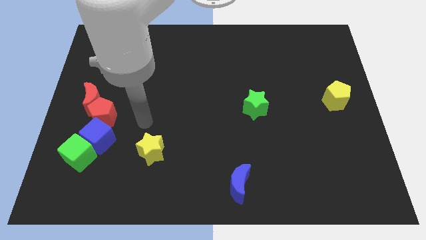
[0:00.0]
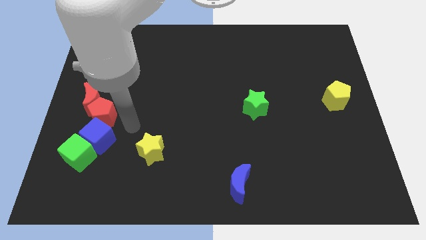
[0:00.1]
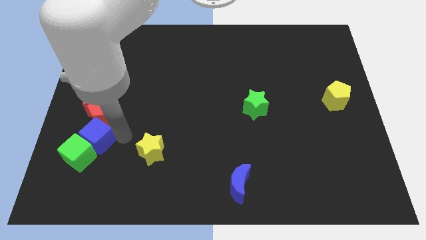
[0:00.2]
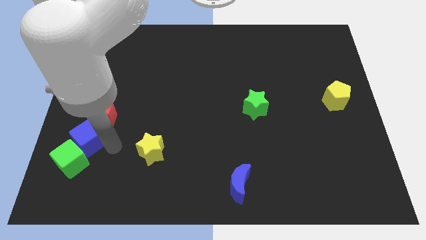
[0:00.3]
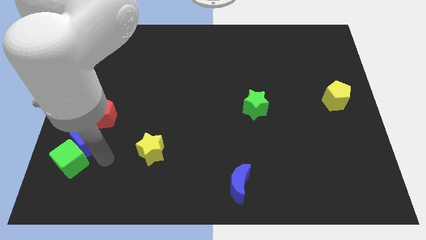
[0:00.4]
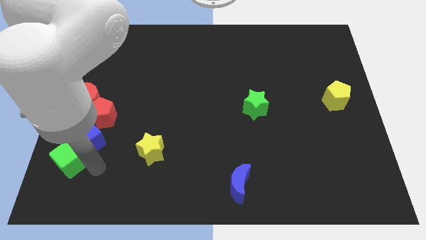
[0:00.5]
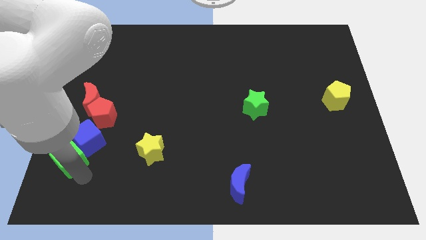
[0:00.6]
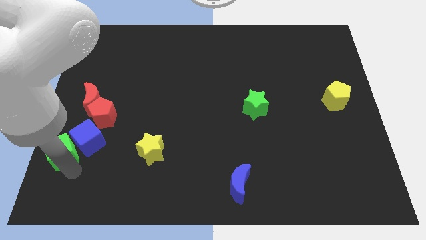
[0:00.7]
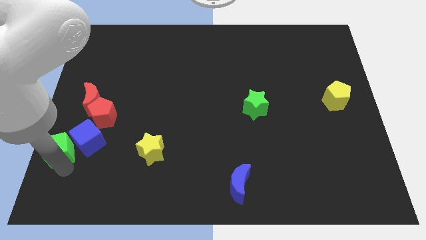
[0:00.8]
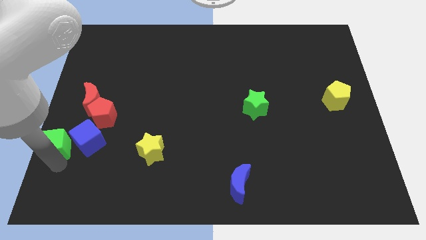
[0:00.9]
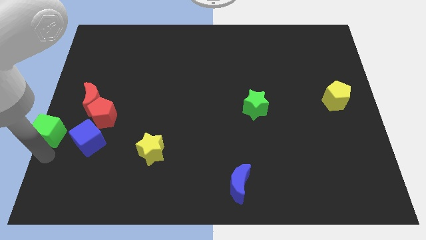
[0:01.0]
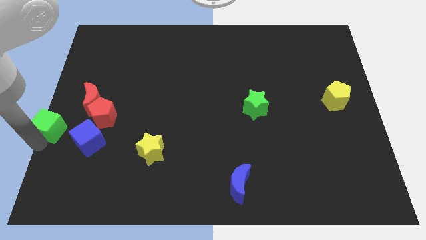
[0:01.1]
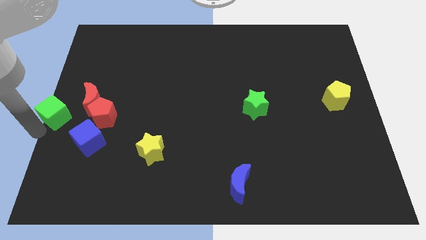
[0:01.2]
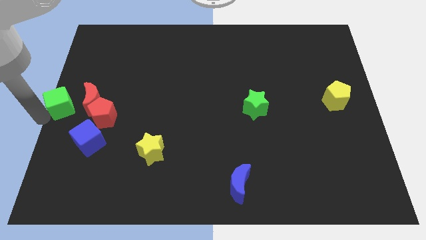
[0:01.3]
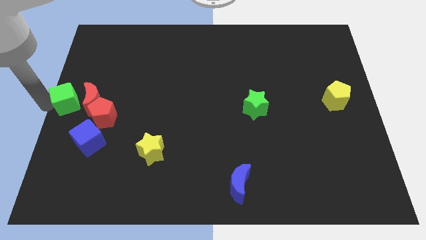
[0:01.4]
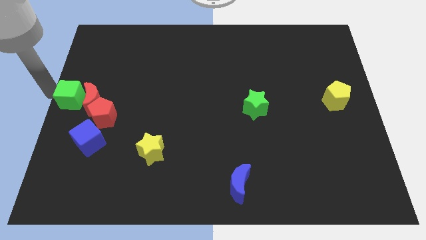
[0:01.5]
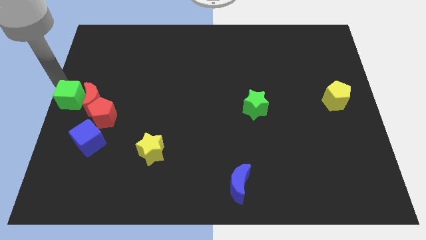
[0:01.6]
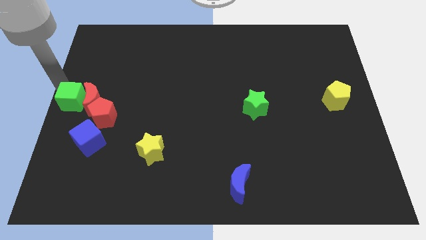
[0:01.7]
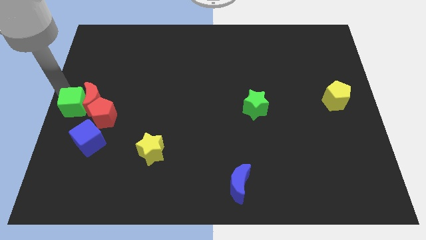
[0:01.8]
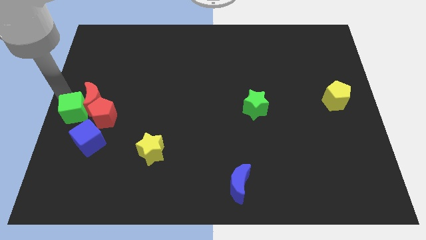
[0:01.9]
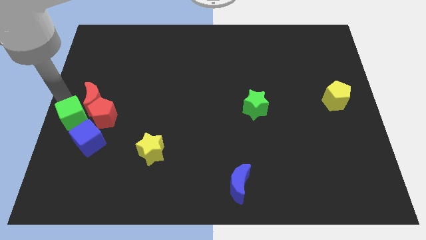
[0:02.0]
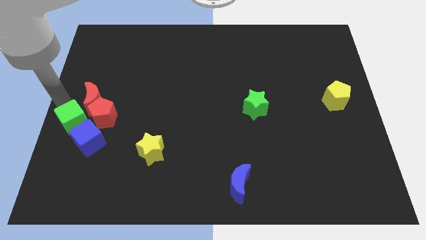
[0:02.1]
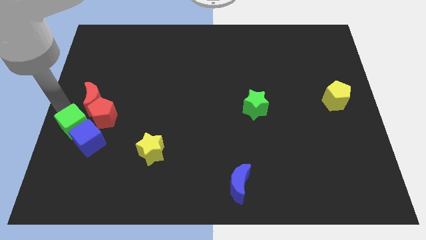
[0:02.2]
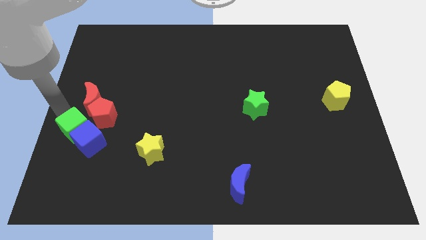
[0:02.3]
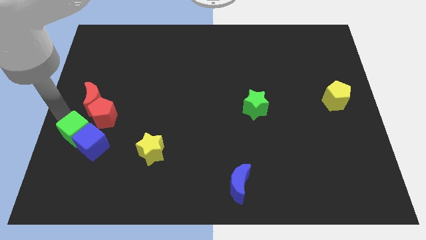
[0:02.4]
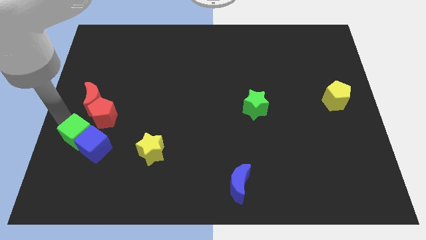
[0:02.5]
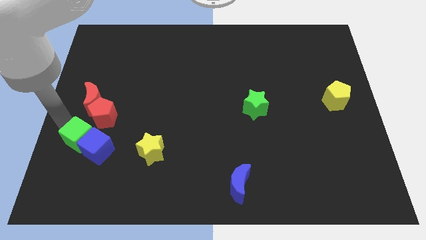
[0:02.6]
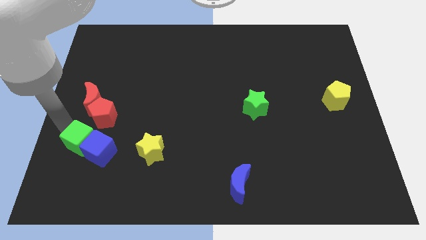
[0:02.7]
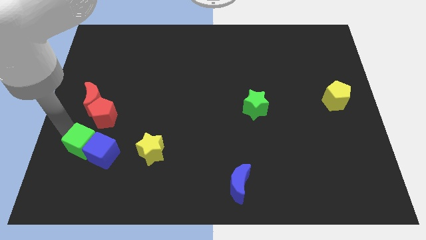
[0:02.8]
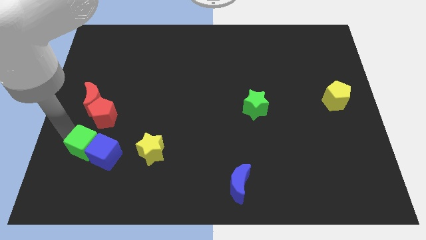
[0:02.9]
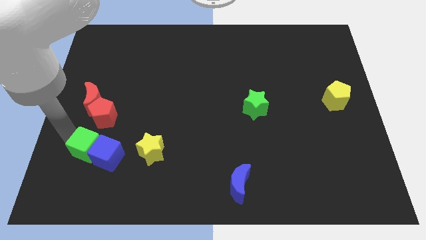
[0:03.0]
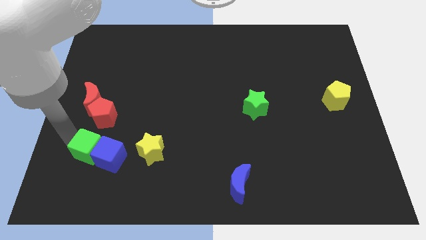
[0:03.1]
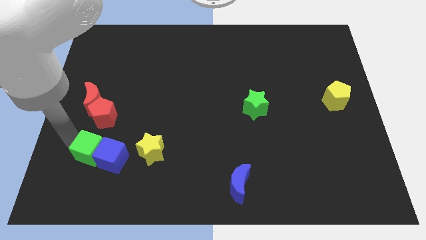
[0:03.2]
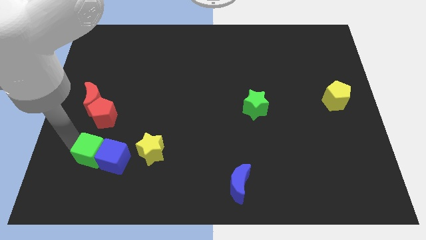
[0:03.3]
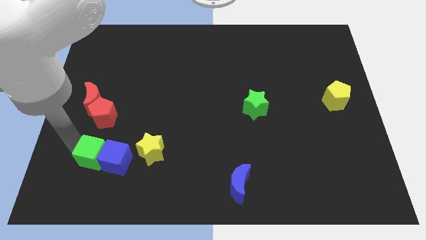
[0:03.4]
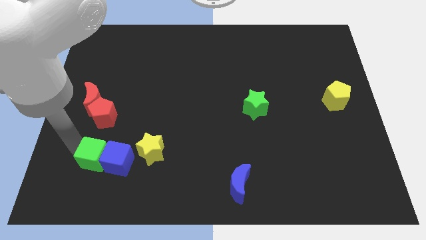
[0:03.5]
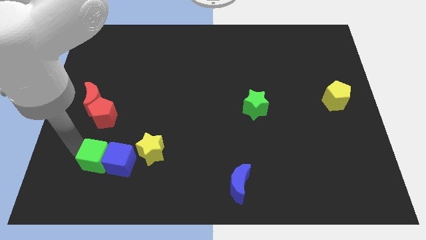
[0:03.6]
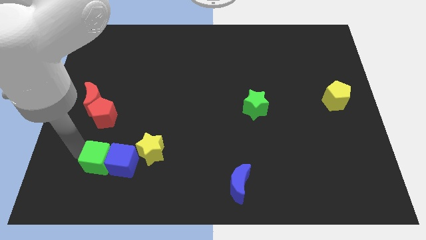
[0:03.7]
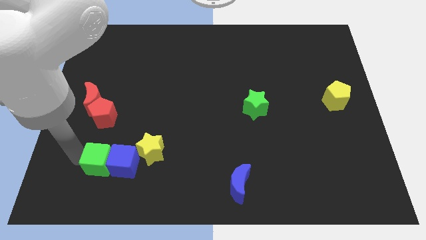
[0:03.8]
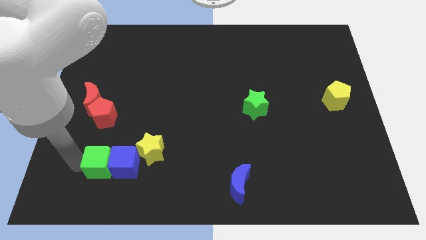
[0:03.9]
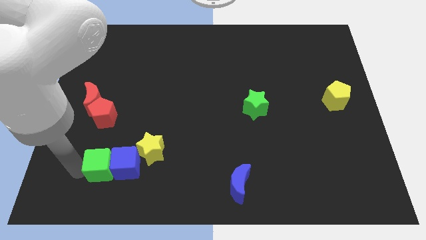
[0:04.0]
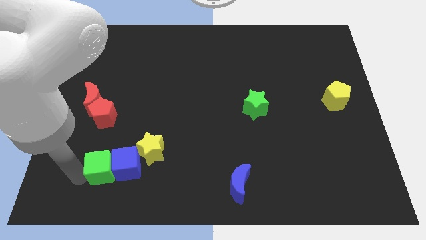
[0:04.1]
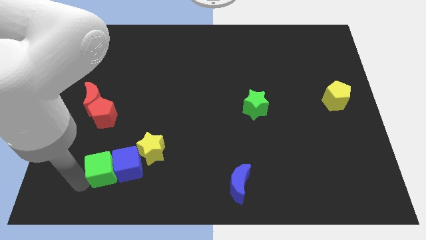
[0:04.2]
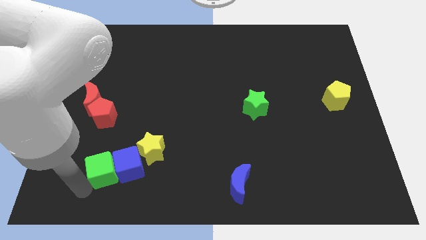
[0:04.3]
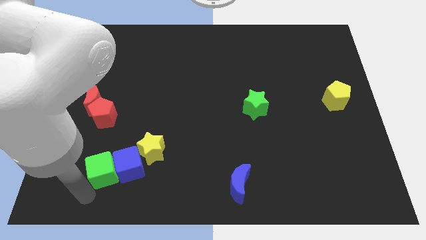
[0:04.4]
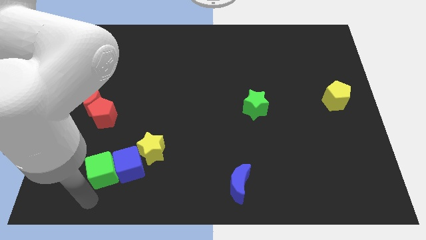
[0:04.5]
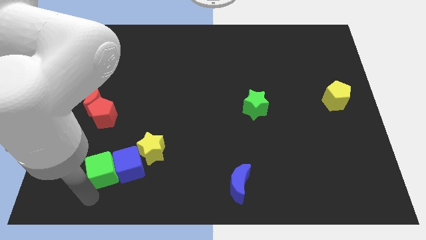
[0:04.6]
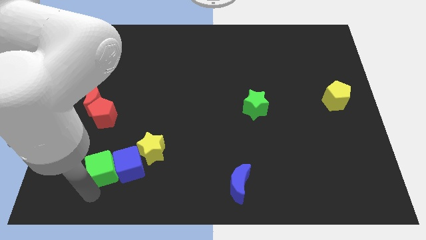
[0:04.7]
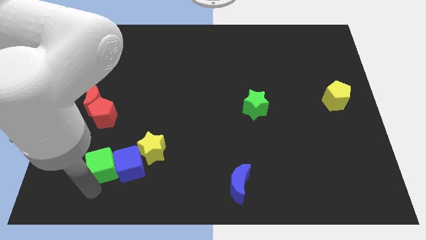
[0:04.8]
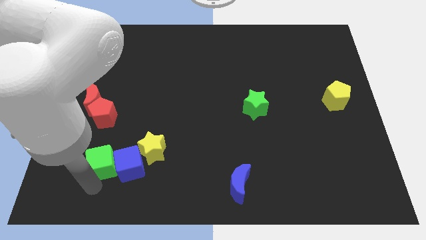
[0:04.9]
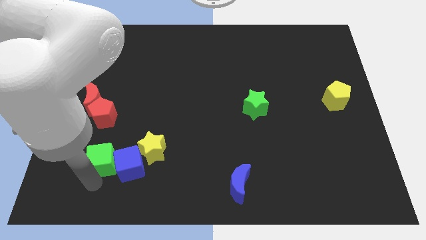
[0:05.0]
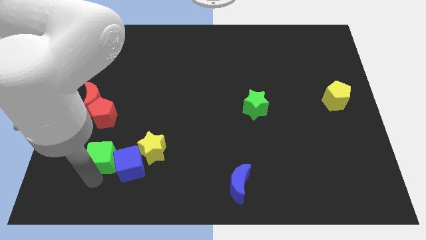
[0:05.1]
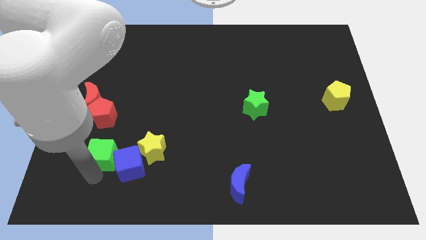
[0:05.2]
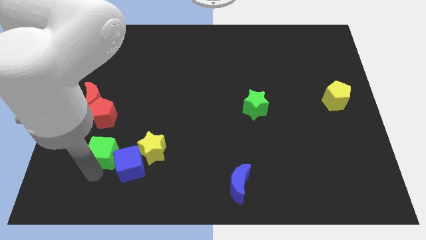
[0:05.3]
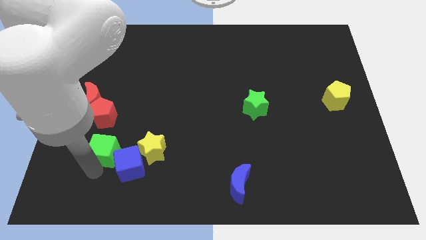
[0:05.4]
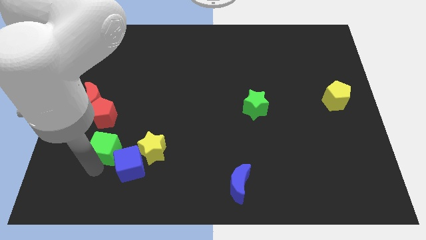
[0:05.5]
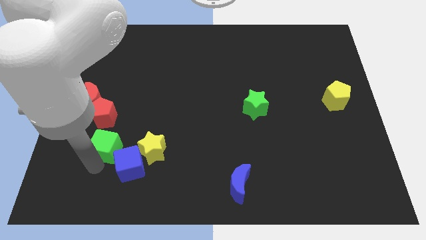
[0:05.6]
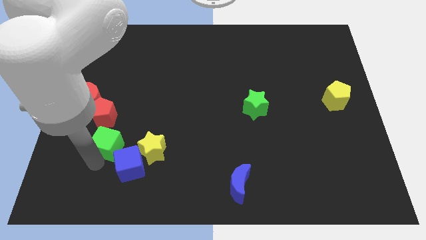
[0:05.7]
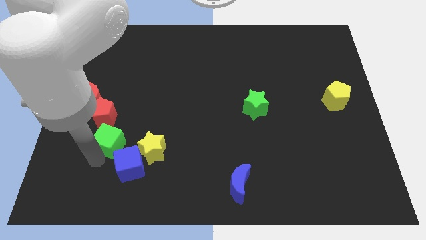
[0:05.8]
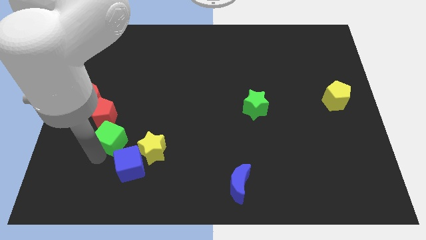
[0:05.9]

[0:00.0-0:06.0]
slide the green cube up and right diagonally a bit

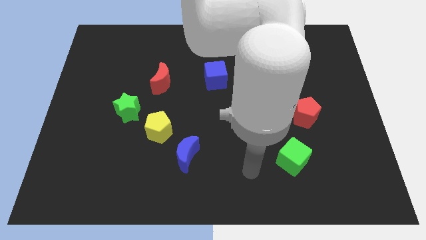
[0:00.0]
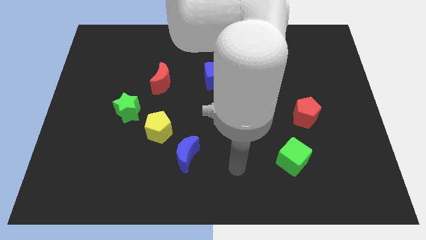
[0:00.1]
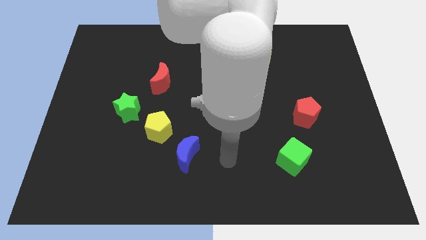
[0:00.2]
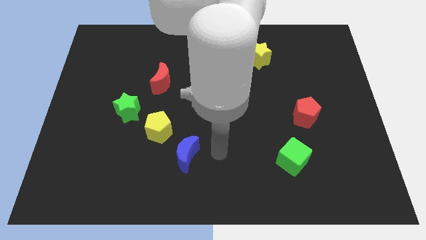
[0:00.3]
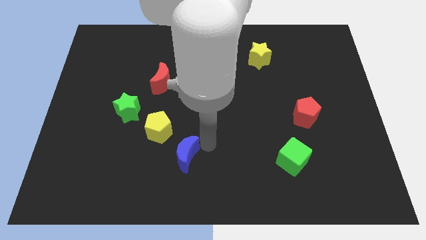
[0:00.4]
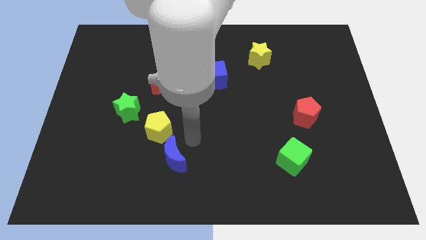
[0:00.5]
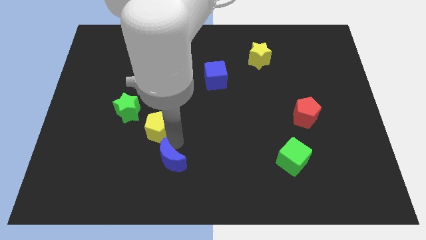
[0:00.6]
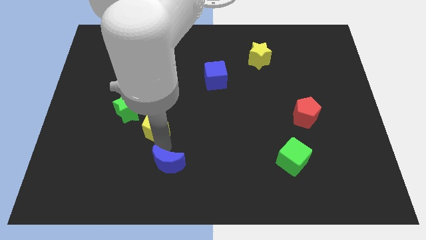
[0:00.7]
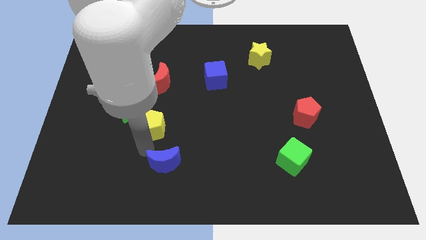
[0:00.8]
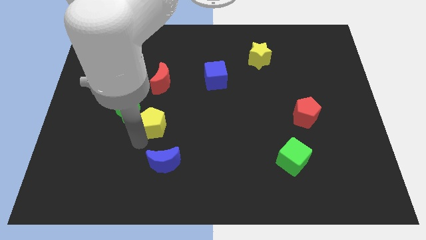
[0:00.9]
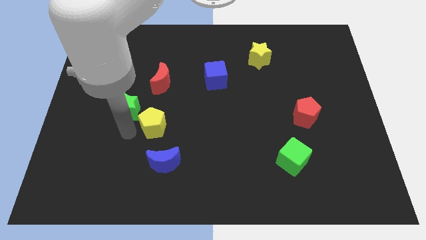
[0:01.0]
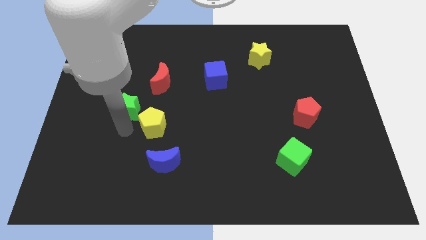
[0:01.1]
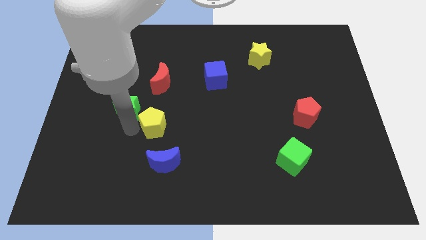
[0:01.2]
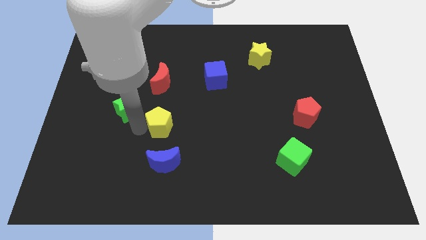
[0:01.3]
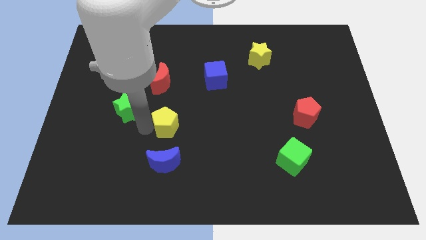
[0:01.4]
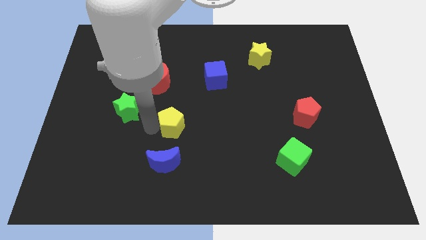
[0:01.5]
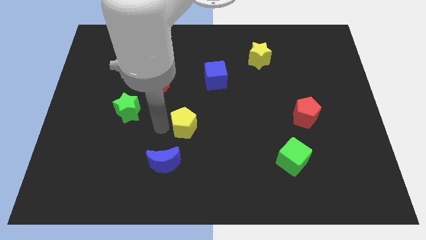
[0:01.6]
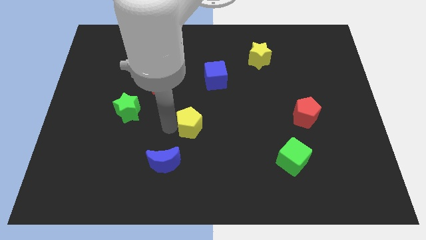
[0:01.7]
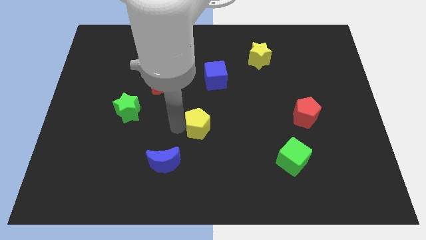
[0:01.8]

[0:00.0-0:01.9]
slightly slide the yellow pentagon right
